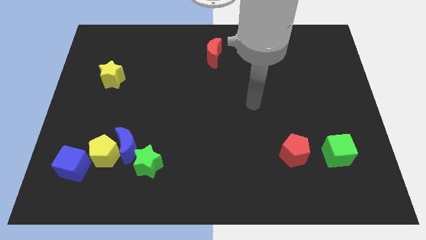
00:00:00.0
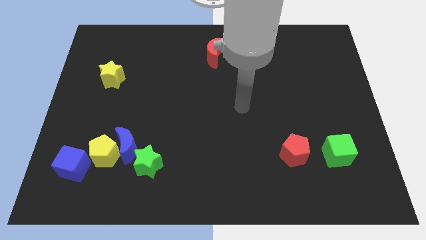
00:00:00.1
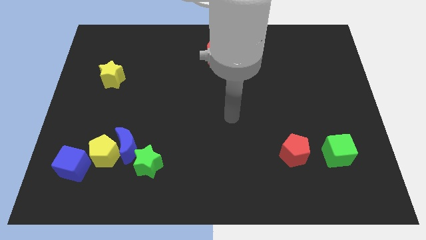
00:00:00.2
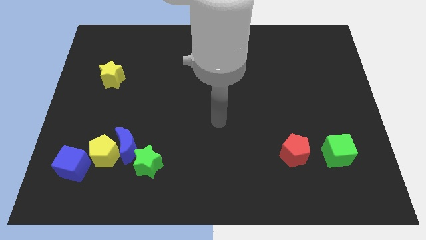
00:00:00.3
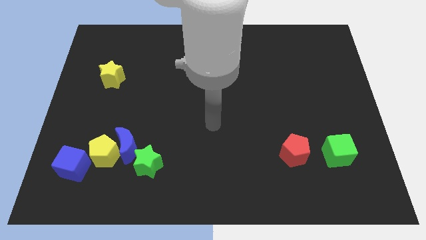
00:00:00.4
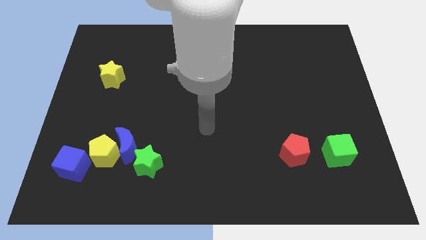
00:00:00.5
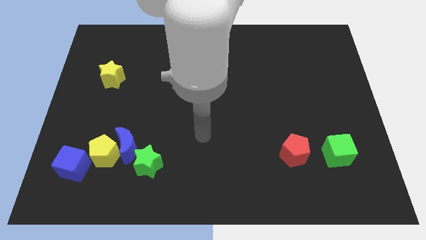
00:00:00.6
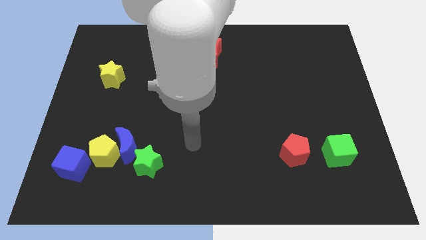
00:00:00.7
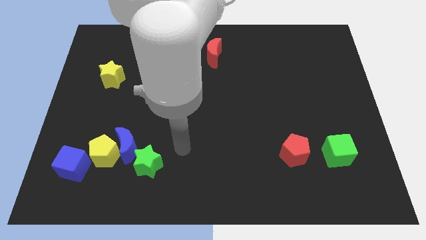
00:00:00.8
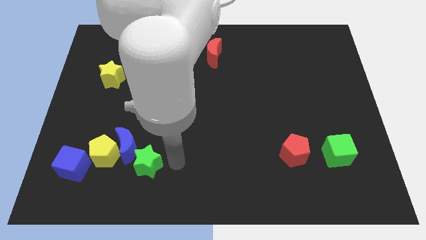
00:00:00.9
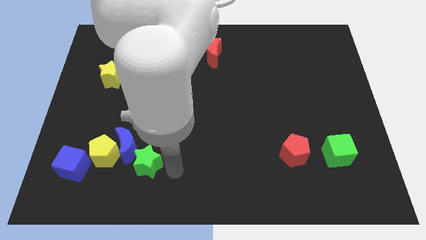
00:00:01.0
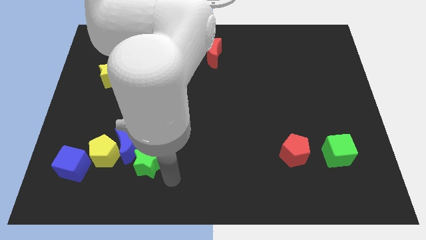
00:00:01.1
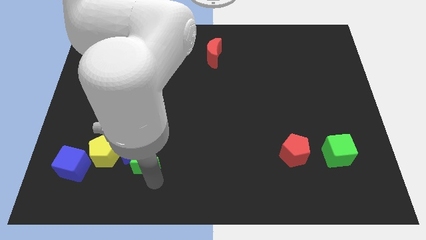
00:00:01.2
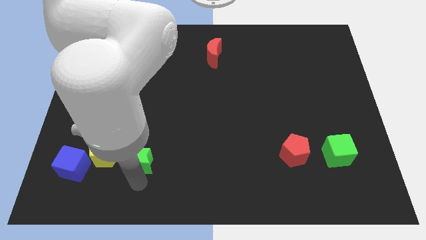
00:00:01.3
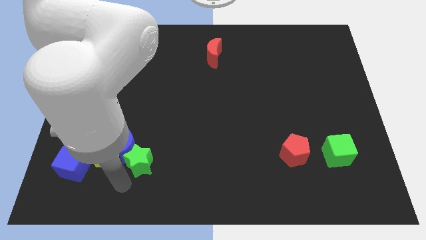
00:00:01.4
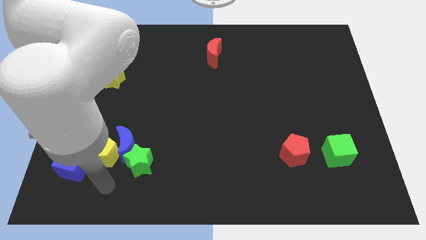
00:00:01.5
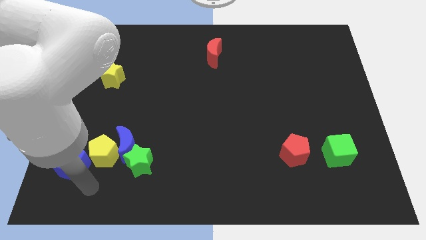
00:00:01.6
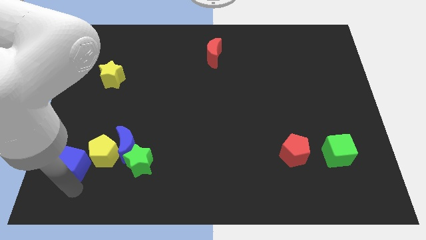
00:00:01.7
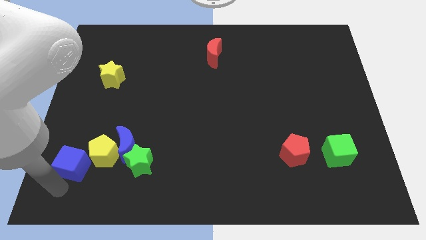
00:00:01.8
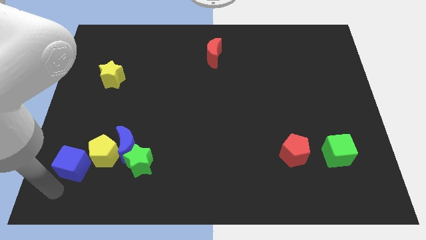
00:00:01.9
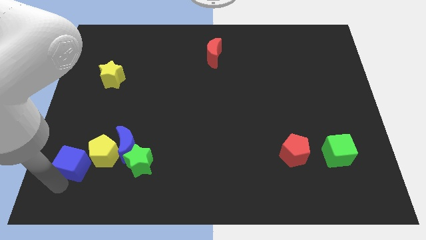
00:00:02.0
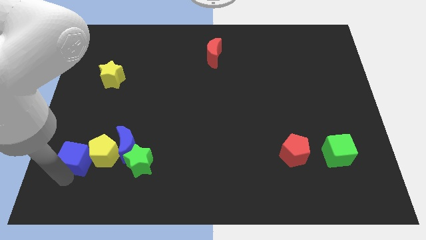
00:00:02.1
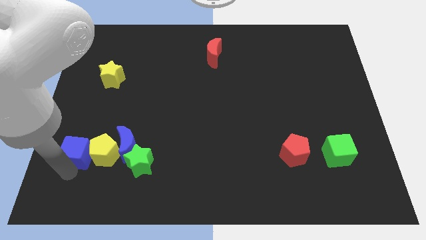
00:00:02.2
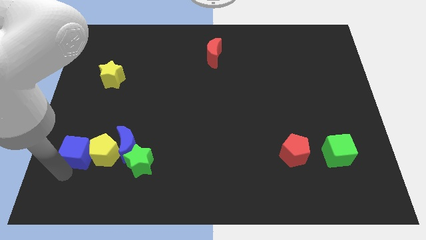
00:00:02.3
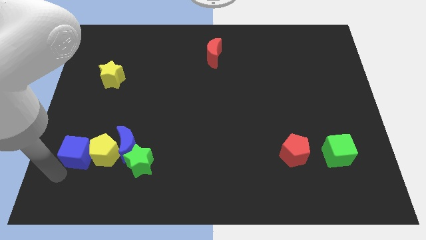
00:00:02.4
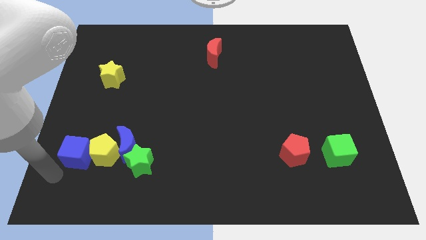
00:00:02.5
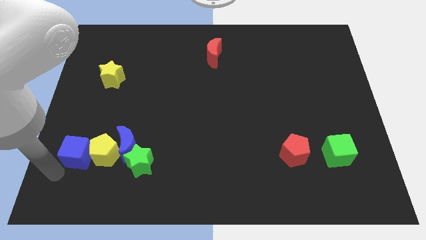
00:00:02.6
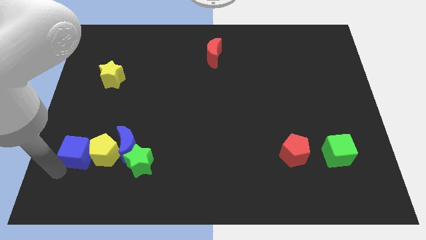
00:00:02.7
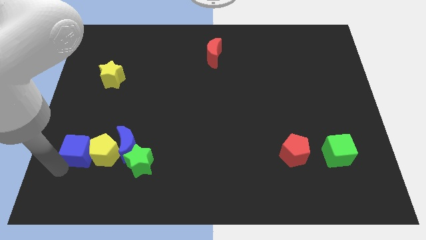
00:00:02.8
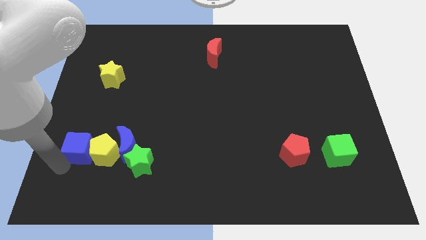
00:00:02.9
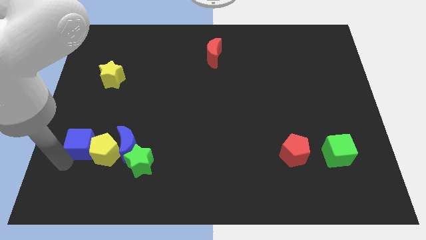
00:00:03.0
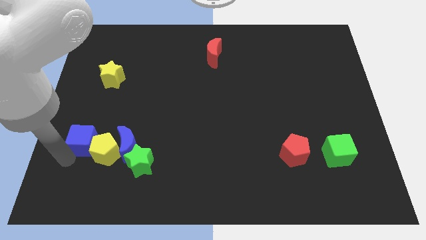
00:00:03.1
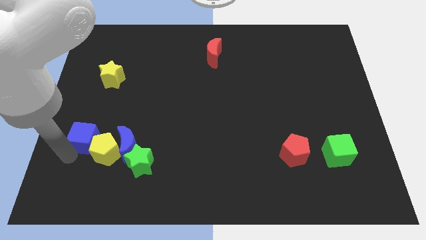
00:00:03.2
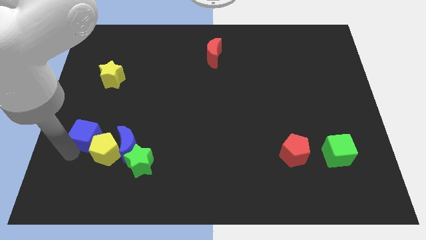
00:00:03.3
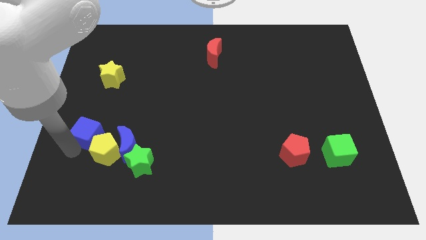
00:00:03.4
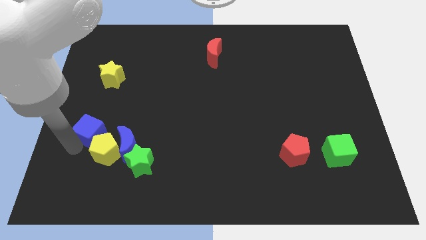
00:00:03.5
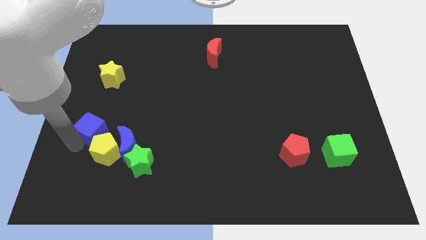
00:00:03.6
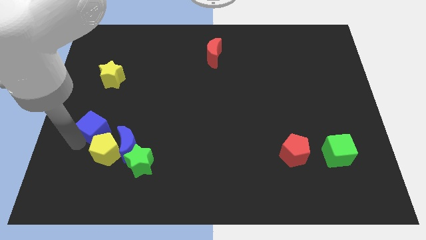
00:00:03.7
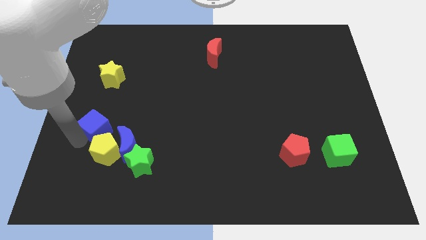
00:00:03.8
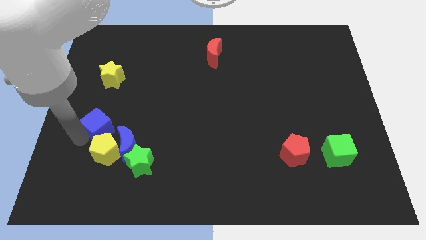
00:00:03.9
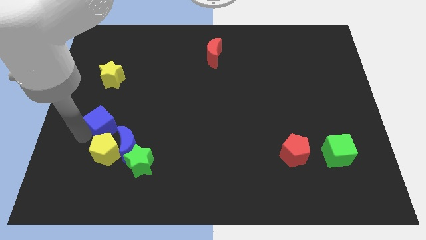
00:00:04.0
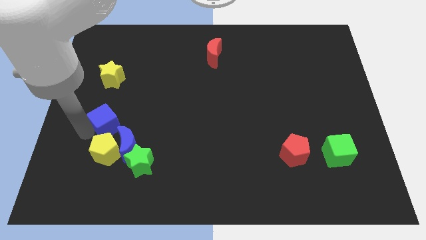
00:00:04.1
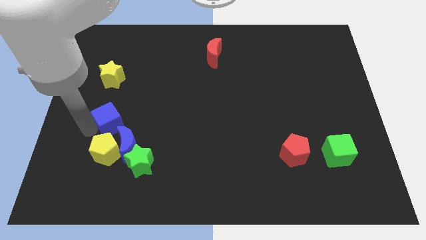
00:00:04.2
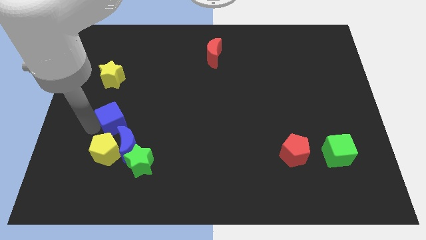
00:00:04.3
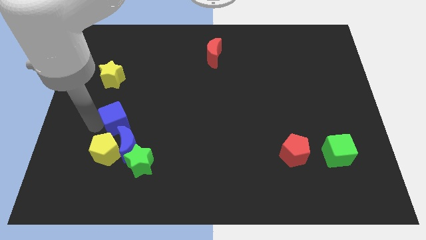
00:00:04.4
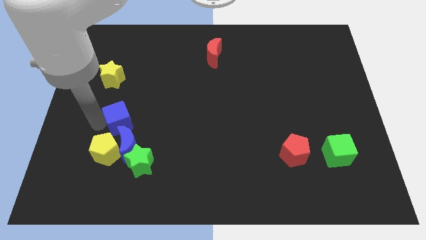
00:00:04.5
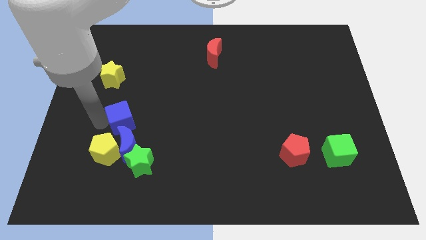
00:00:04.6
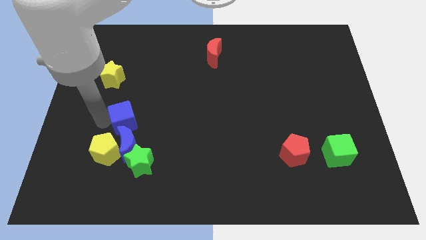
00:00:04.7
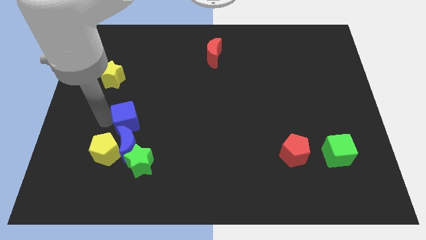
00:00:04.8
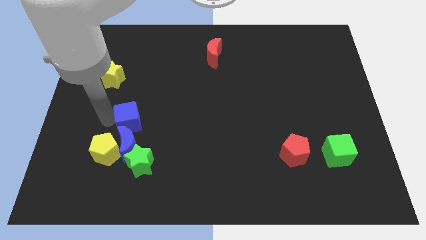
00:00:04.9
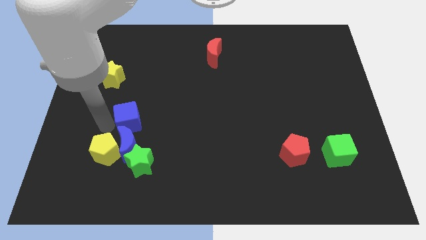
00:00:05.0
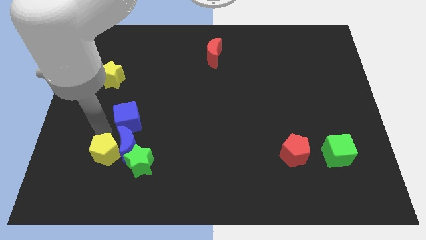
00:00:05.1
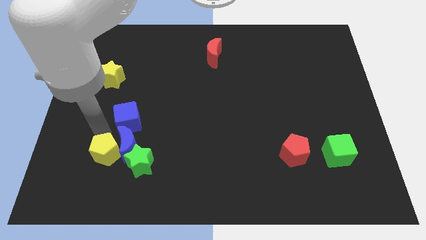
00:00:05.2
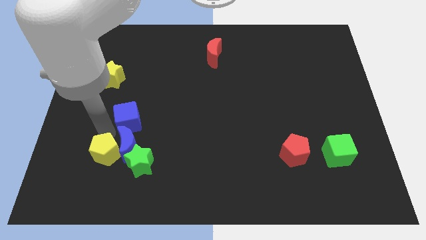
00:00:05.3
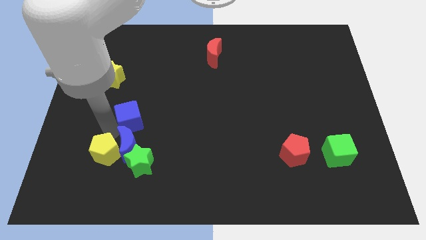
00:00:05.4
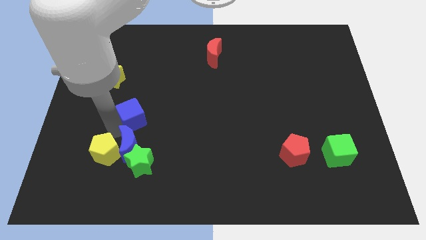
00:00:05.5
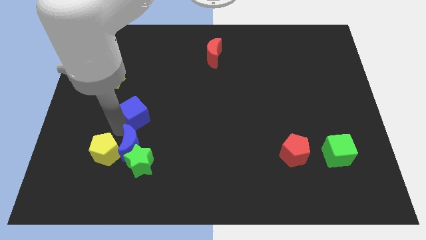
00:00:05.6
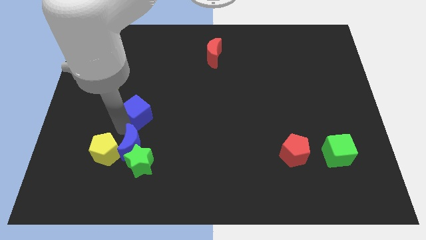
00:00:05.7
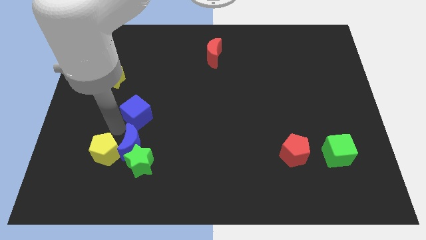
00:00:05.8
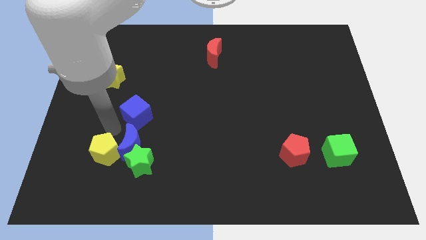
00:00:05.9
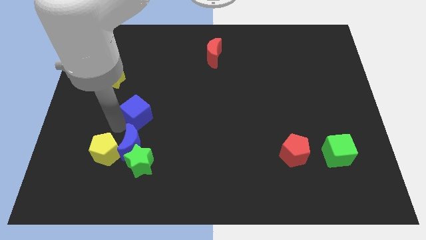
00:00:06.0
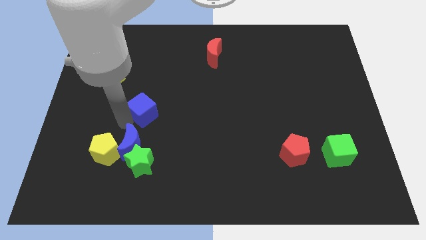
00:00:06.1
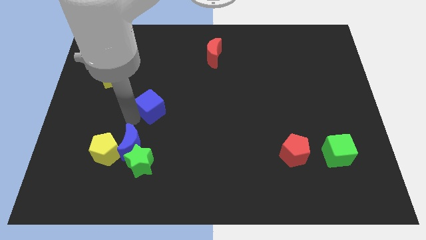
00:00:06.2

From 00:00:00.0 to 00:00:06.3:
slide the blue cube diagonally upwards and right

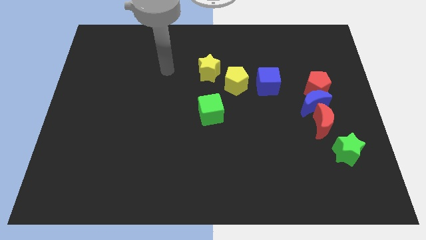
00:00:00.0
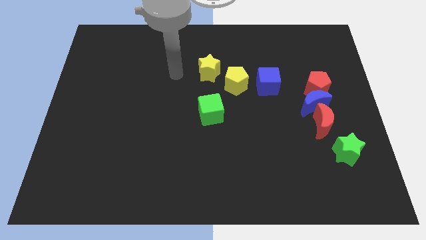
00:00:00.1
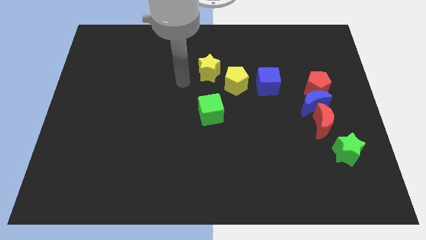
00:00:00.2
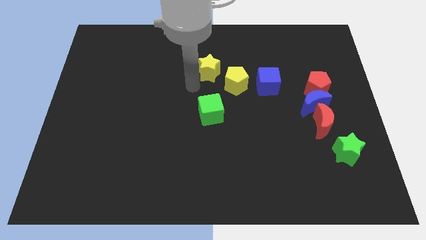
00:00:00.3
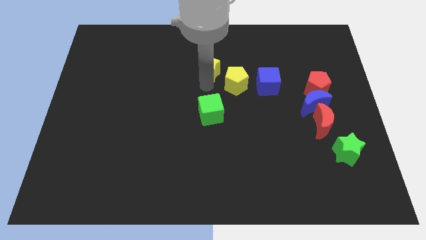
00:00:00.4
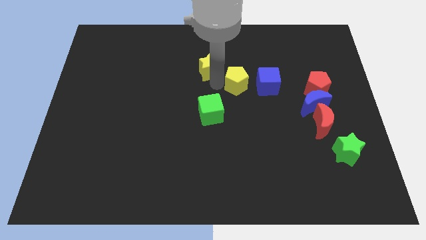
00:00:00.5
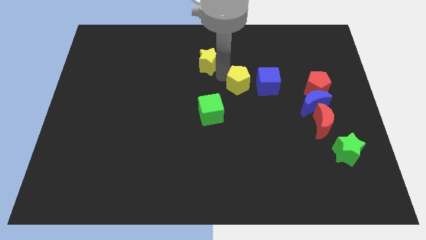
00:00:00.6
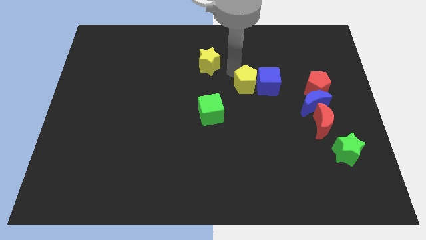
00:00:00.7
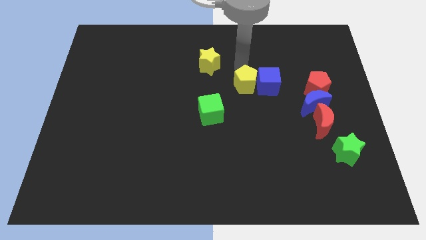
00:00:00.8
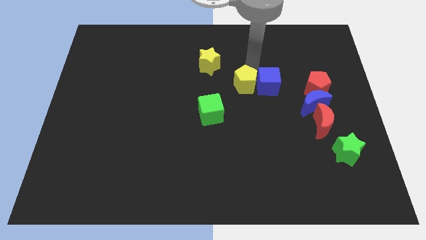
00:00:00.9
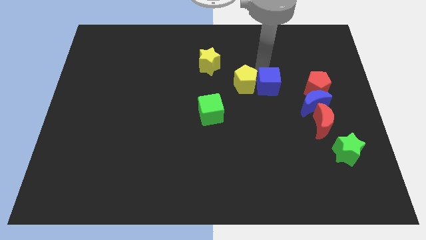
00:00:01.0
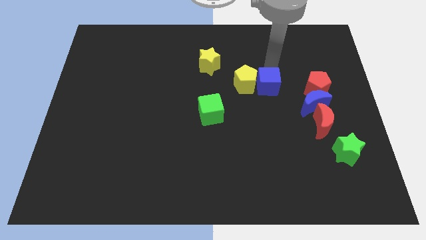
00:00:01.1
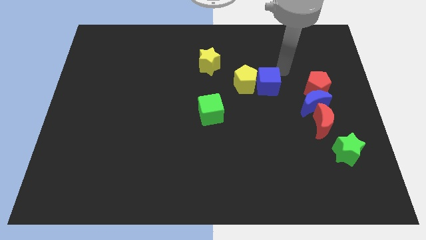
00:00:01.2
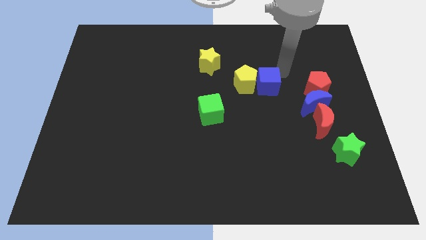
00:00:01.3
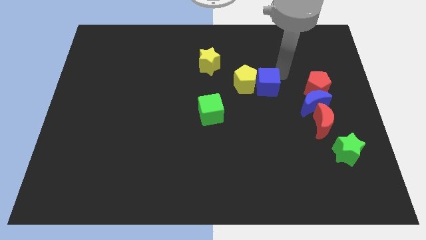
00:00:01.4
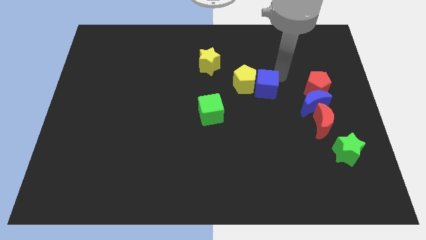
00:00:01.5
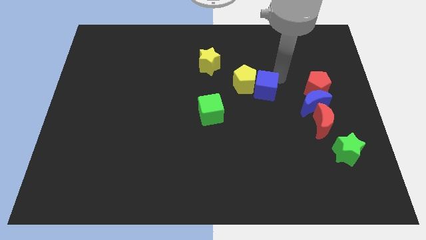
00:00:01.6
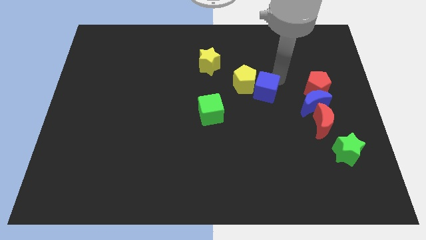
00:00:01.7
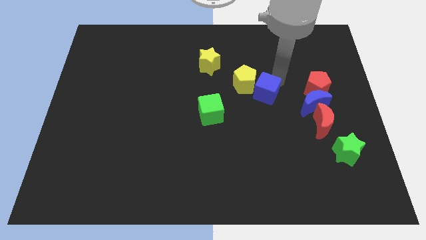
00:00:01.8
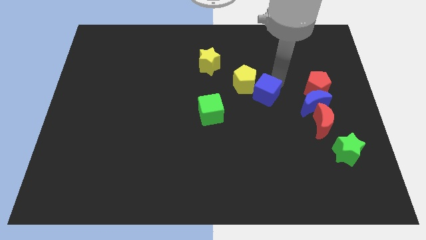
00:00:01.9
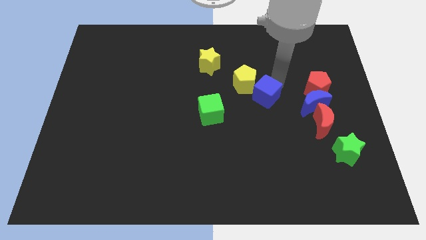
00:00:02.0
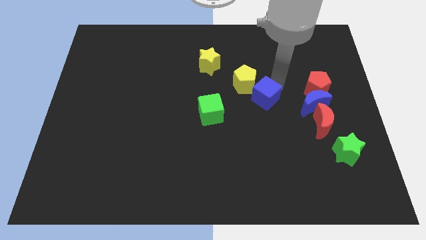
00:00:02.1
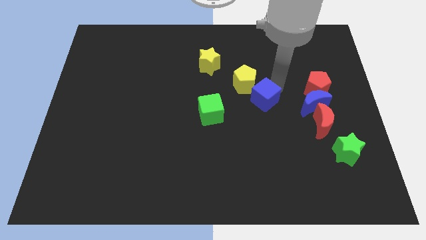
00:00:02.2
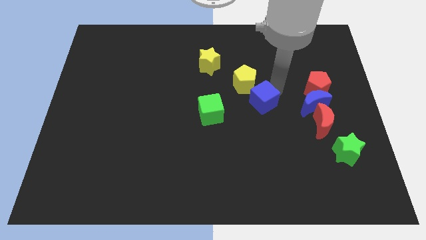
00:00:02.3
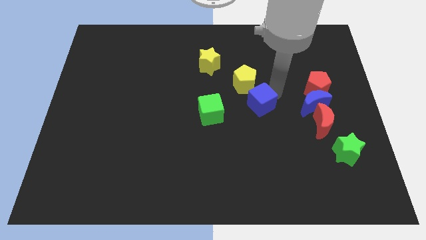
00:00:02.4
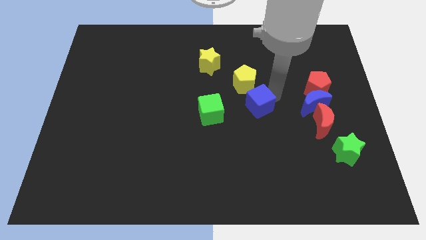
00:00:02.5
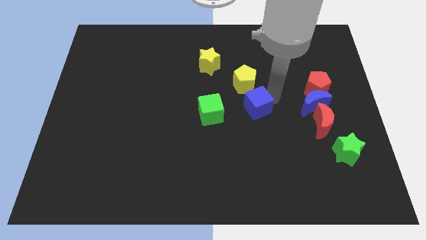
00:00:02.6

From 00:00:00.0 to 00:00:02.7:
slide the blue cube somewhat downwards and left diagonally
